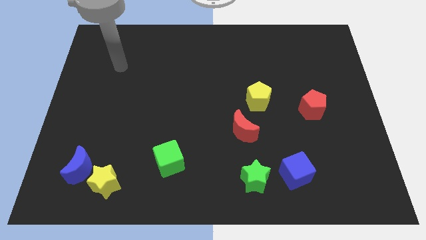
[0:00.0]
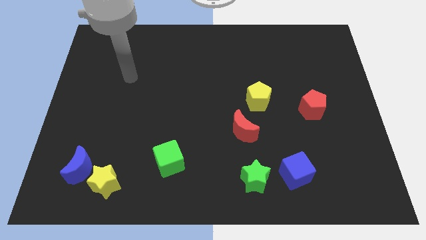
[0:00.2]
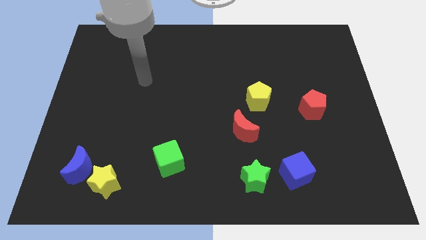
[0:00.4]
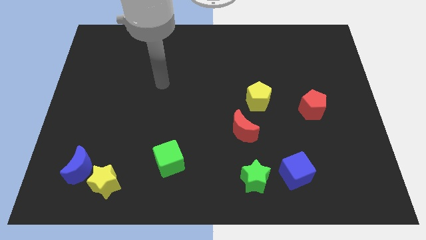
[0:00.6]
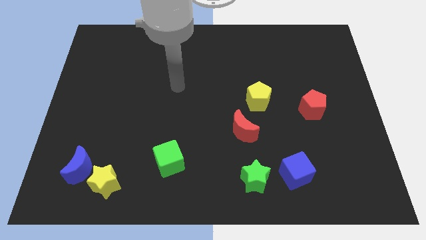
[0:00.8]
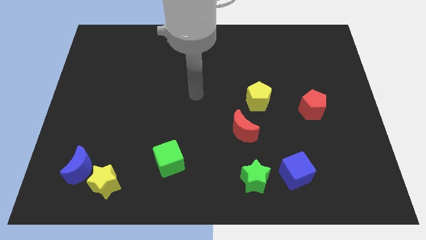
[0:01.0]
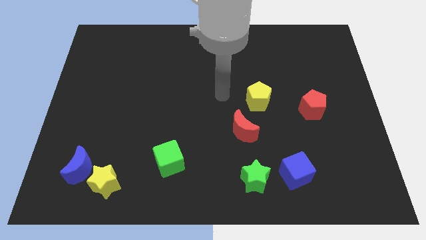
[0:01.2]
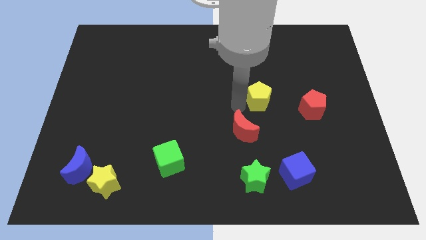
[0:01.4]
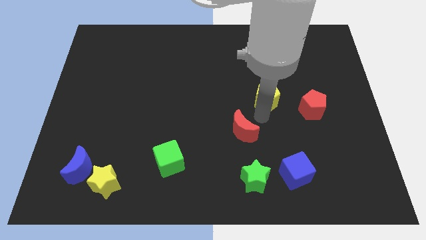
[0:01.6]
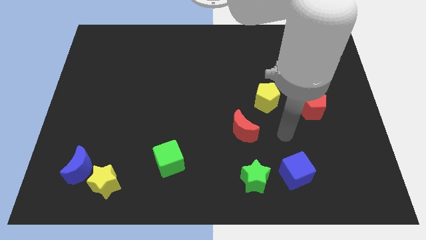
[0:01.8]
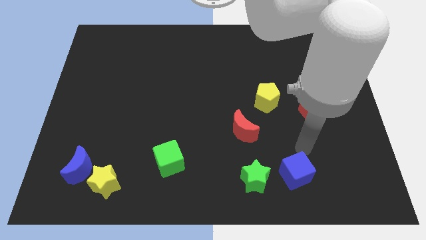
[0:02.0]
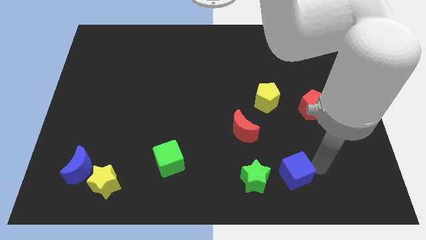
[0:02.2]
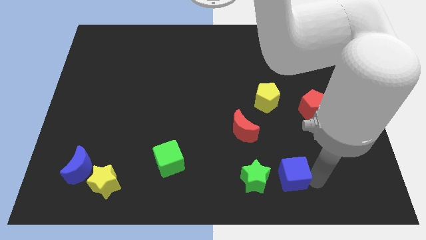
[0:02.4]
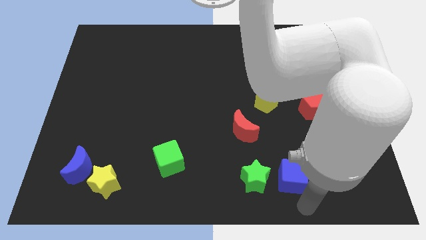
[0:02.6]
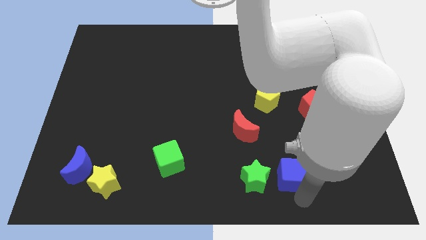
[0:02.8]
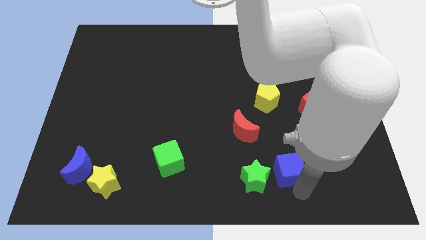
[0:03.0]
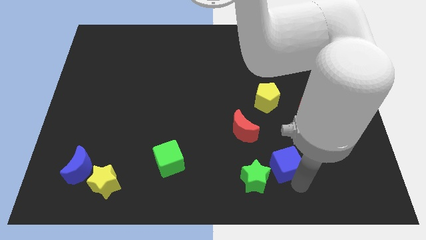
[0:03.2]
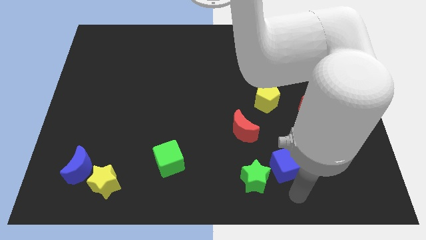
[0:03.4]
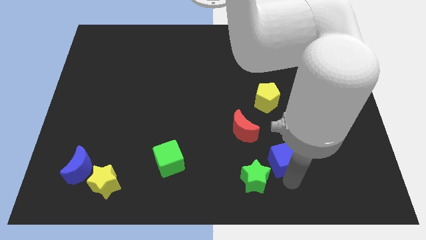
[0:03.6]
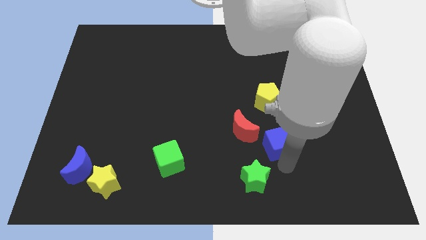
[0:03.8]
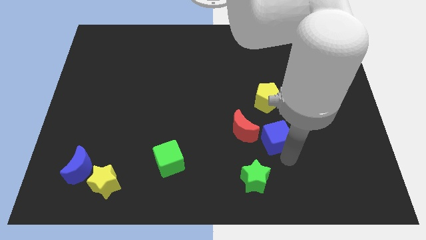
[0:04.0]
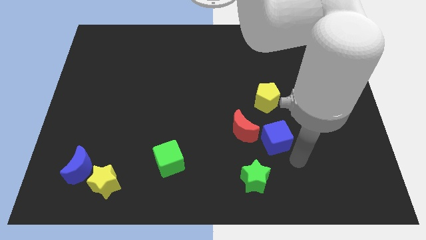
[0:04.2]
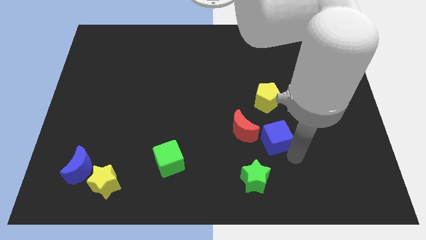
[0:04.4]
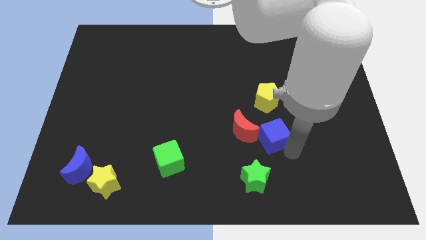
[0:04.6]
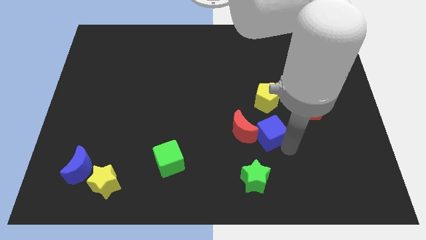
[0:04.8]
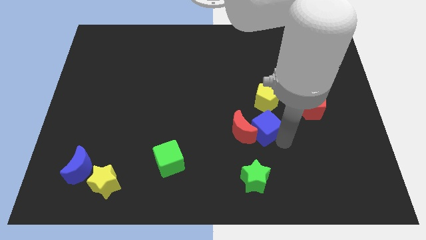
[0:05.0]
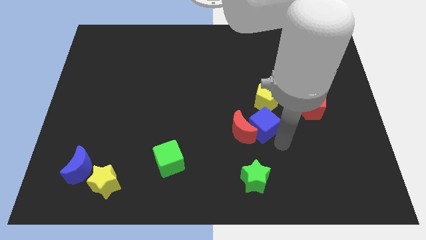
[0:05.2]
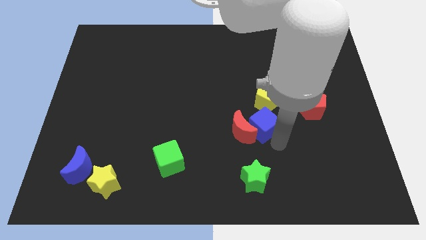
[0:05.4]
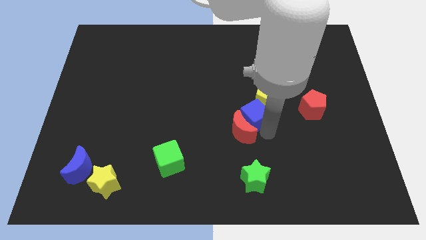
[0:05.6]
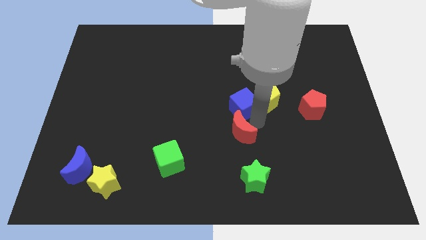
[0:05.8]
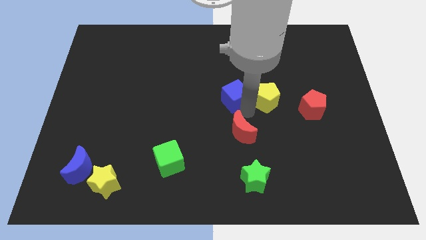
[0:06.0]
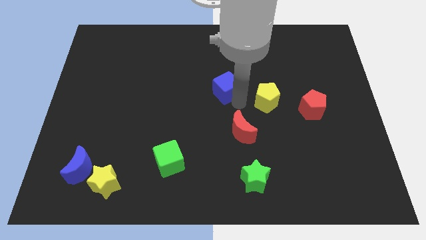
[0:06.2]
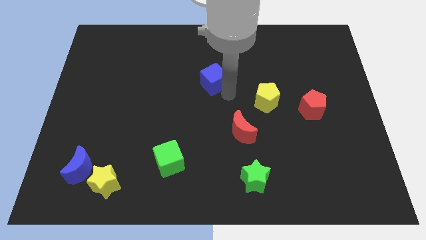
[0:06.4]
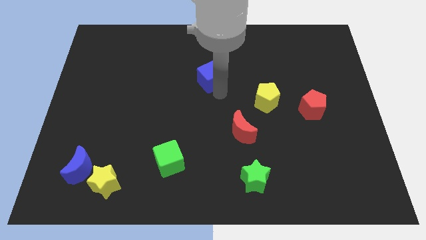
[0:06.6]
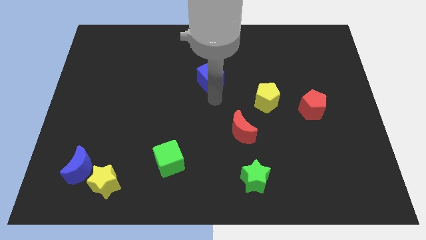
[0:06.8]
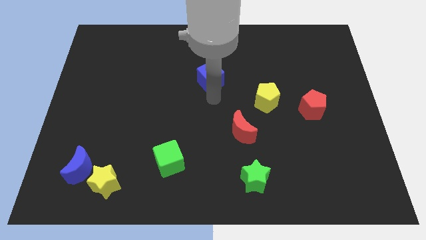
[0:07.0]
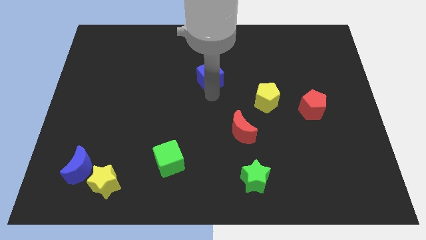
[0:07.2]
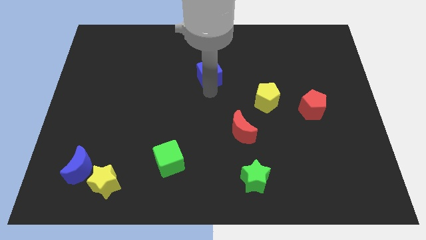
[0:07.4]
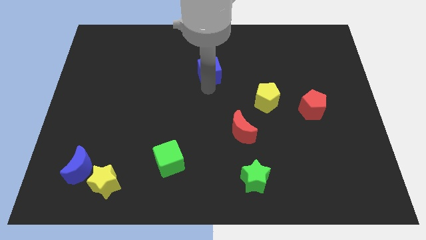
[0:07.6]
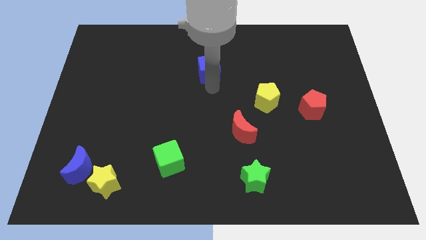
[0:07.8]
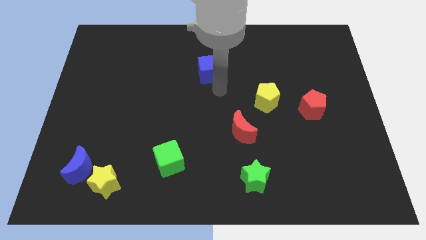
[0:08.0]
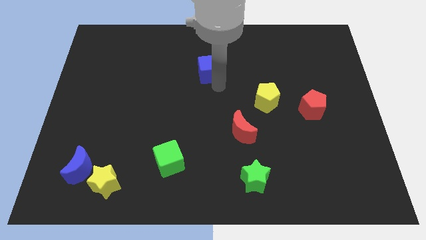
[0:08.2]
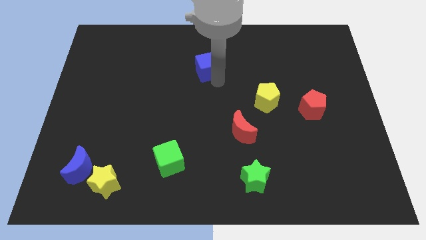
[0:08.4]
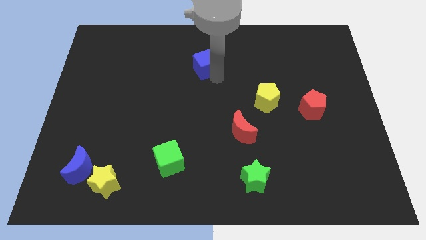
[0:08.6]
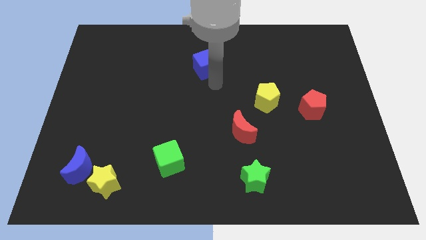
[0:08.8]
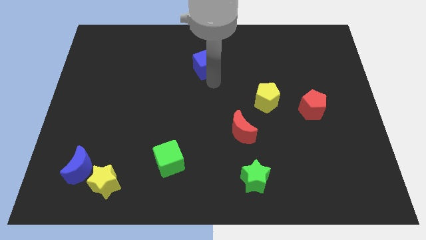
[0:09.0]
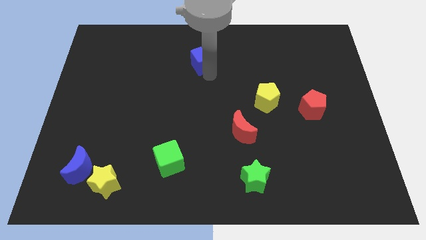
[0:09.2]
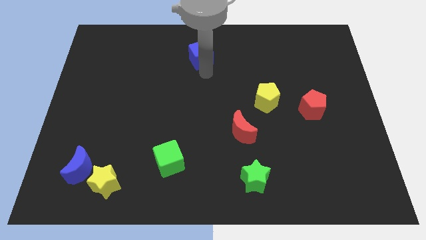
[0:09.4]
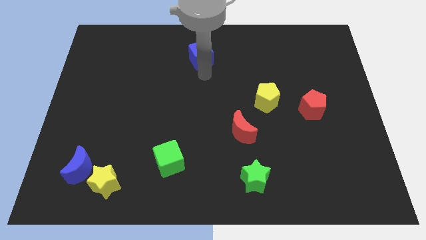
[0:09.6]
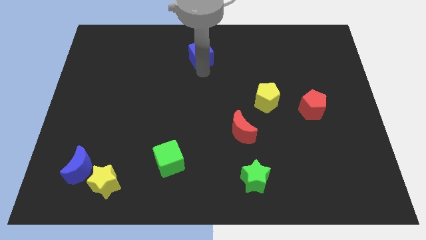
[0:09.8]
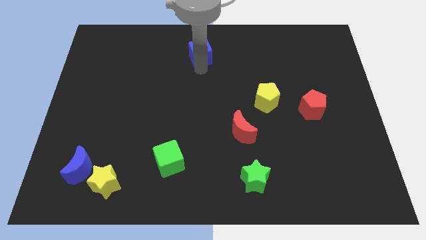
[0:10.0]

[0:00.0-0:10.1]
move the blue cube to the top

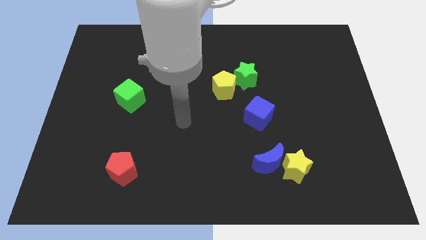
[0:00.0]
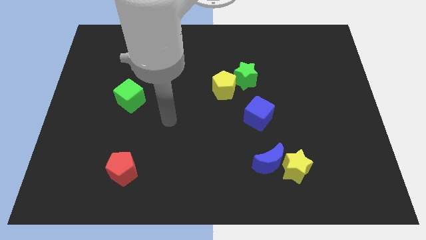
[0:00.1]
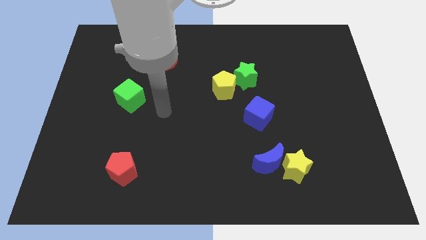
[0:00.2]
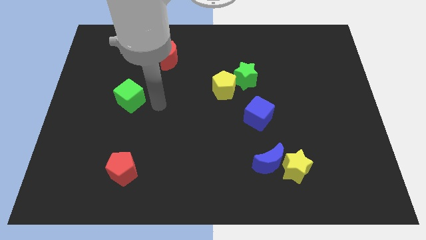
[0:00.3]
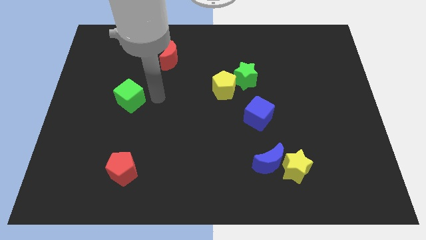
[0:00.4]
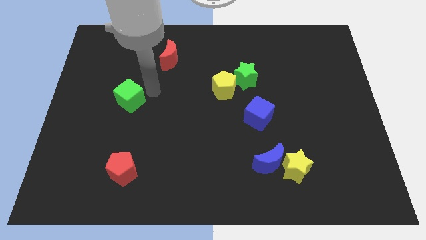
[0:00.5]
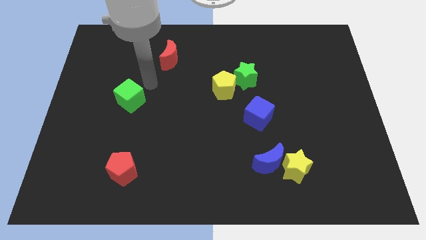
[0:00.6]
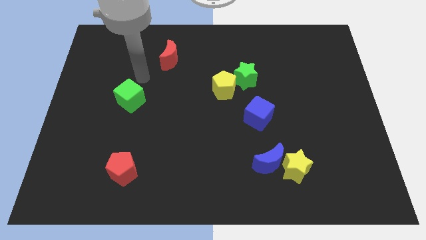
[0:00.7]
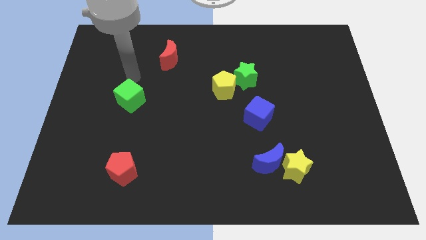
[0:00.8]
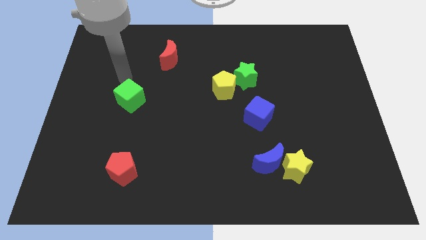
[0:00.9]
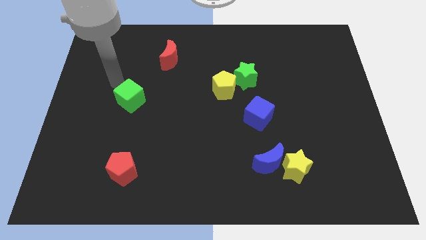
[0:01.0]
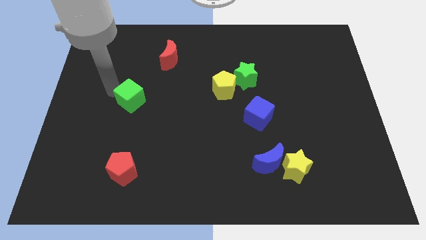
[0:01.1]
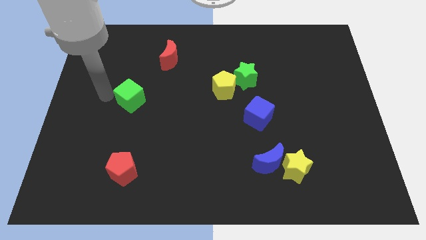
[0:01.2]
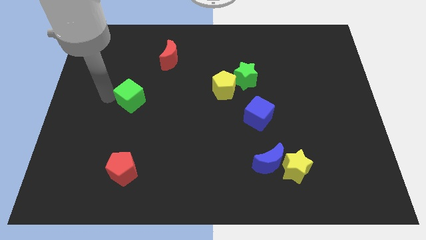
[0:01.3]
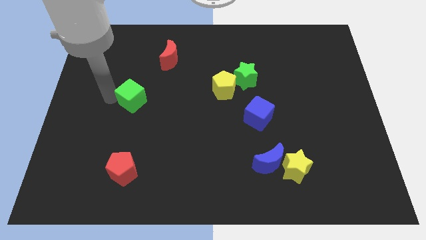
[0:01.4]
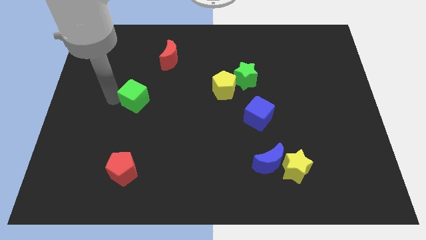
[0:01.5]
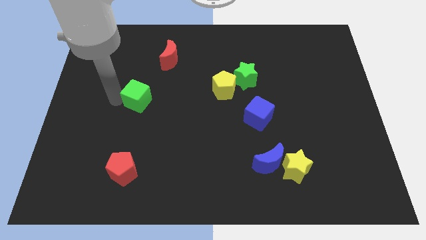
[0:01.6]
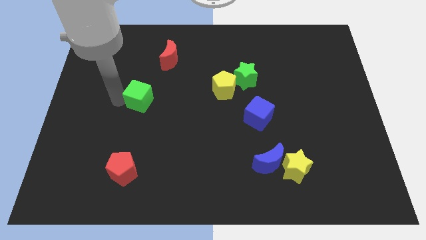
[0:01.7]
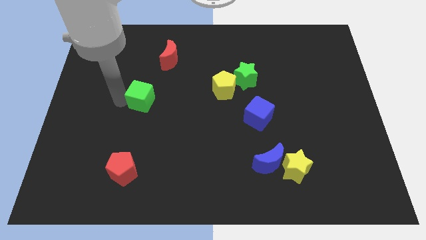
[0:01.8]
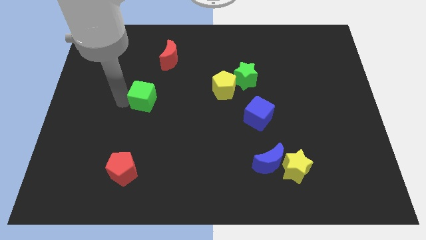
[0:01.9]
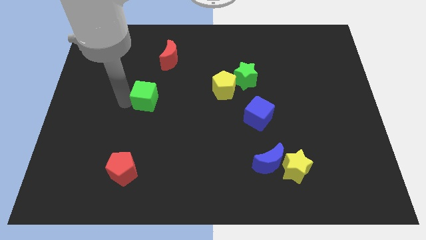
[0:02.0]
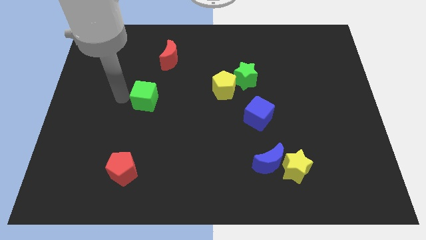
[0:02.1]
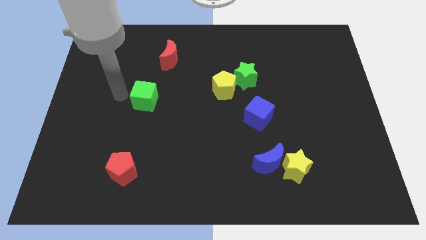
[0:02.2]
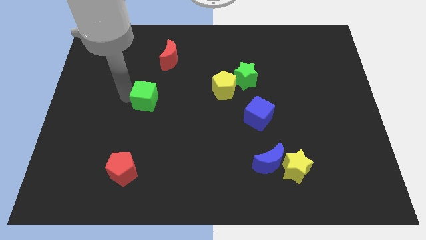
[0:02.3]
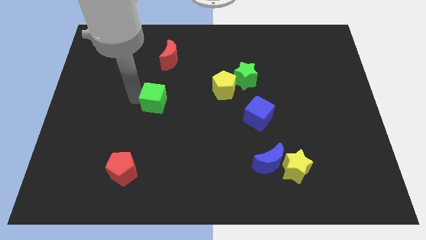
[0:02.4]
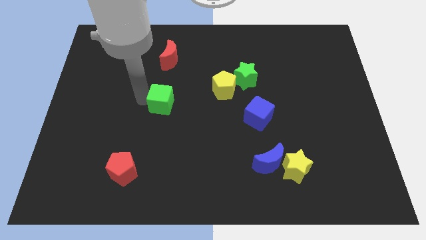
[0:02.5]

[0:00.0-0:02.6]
push the green cube to the center of the board
